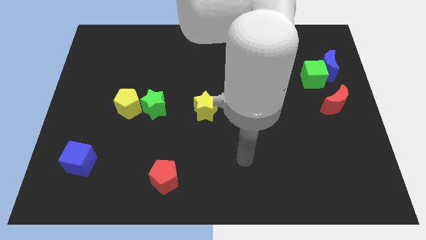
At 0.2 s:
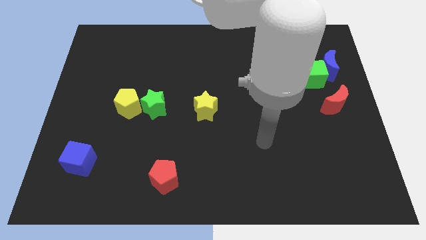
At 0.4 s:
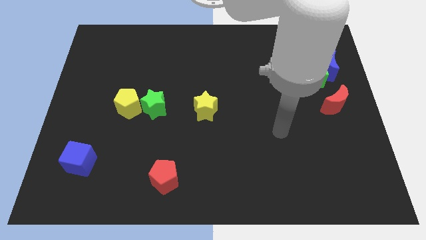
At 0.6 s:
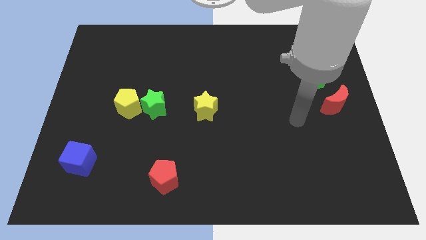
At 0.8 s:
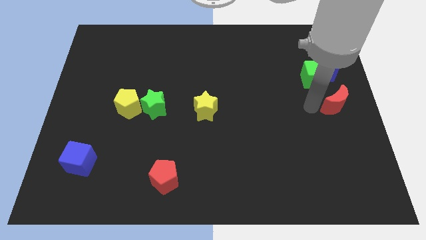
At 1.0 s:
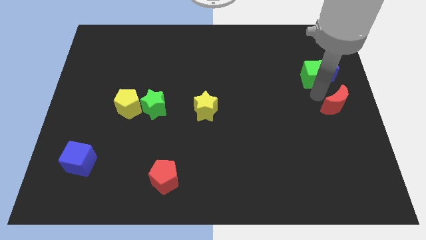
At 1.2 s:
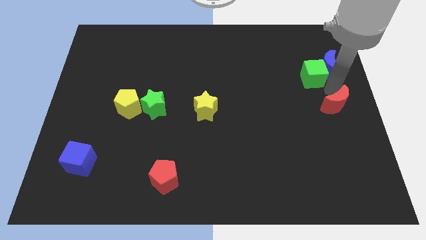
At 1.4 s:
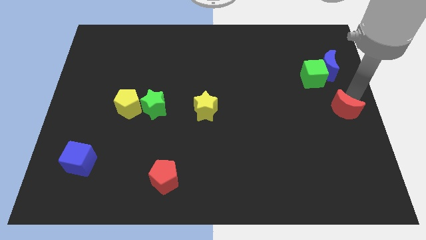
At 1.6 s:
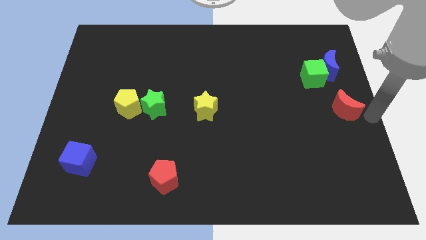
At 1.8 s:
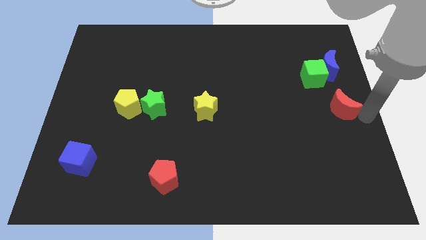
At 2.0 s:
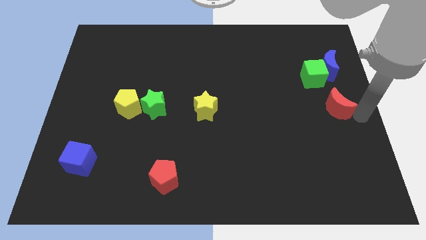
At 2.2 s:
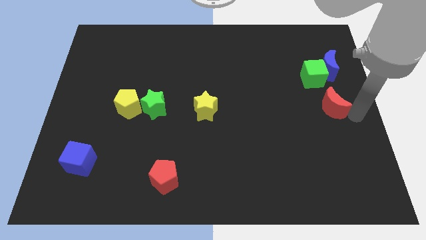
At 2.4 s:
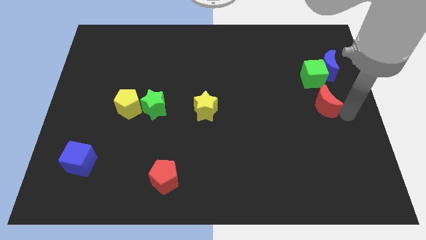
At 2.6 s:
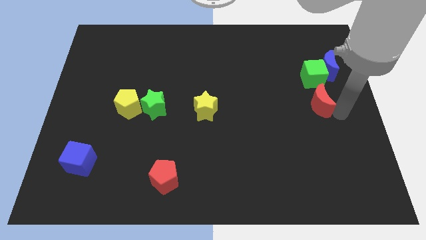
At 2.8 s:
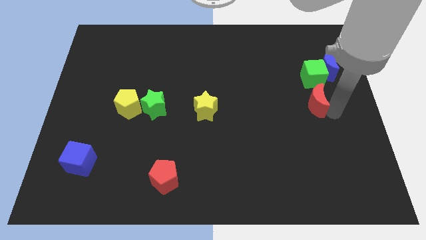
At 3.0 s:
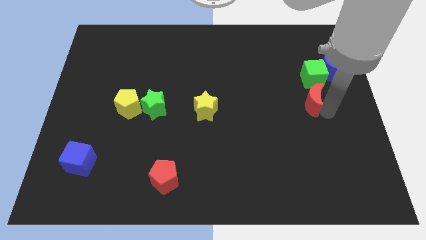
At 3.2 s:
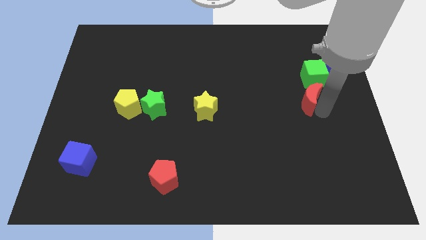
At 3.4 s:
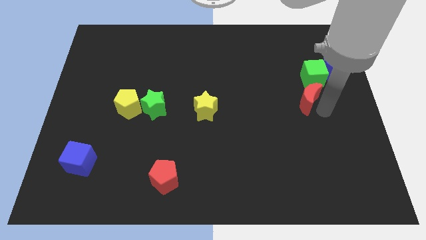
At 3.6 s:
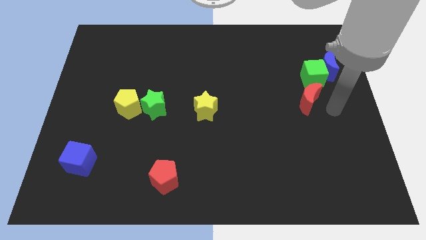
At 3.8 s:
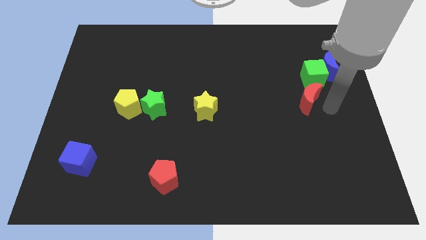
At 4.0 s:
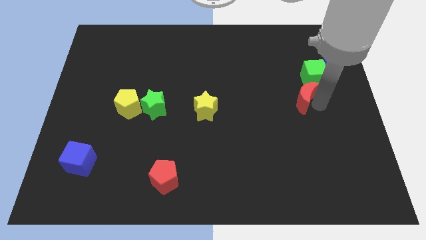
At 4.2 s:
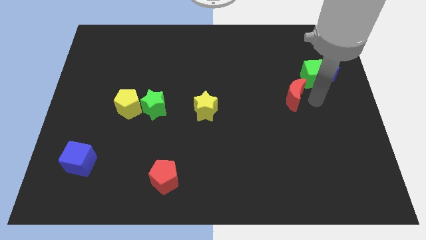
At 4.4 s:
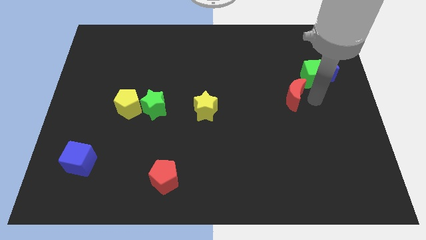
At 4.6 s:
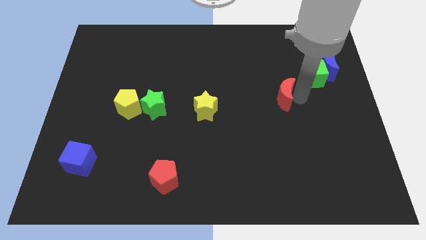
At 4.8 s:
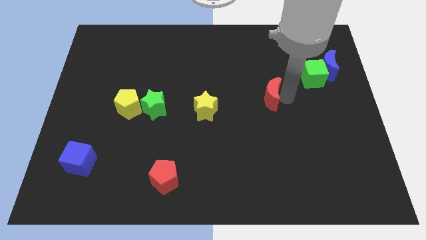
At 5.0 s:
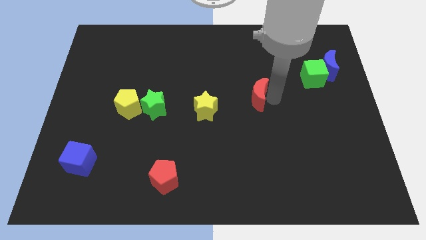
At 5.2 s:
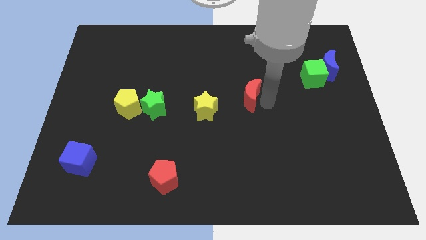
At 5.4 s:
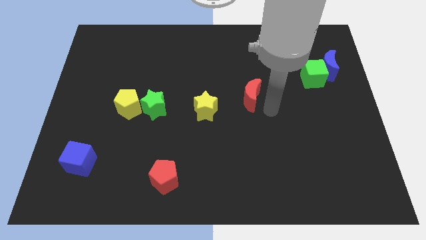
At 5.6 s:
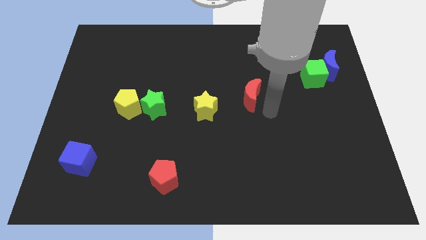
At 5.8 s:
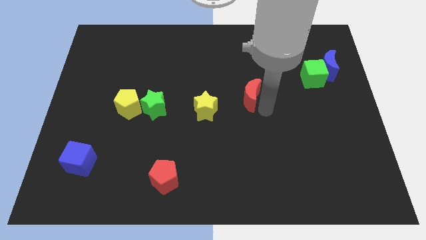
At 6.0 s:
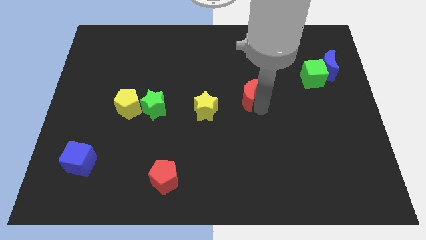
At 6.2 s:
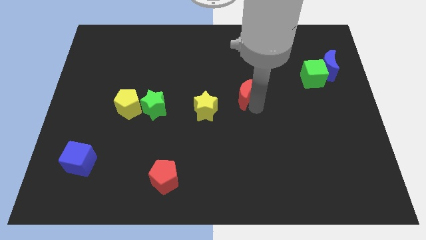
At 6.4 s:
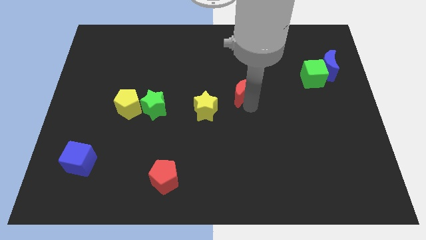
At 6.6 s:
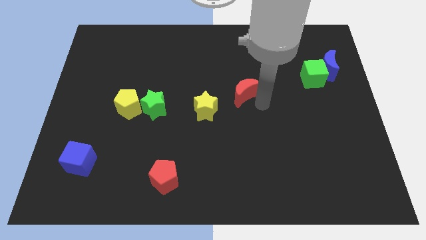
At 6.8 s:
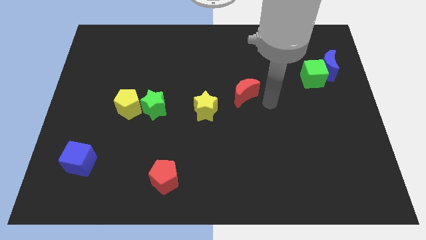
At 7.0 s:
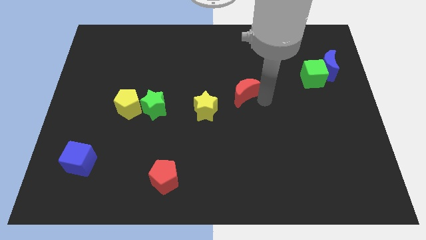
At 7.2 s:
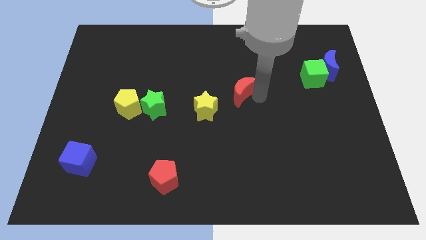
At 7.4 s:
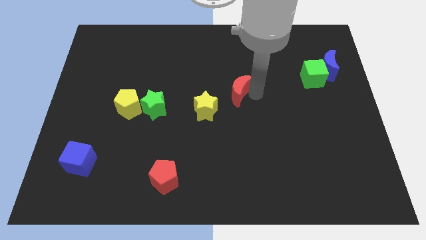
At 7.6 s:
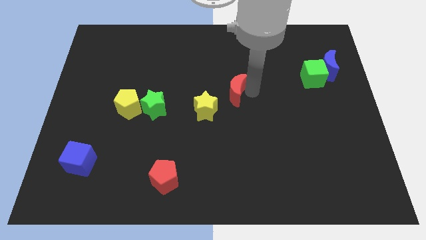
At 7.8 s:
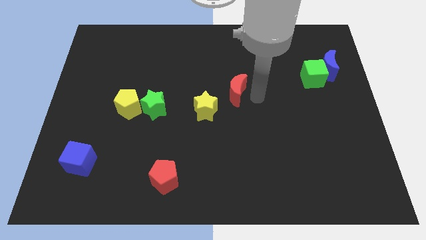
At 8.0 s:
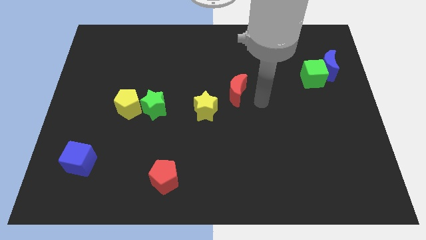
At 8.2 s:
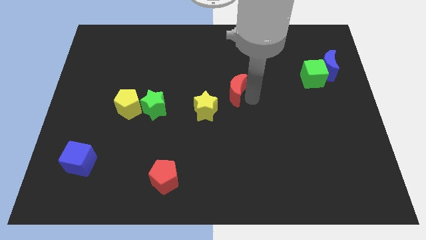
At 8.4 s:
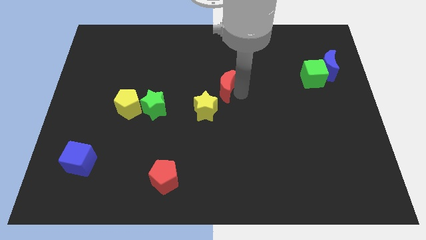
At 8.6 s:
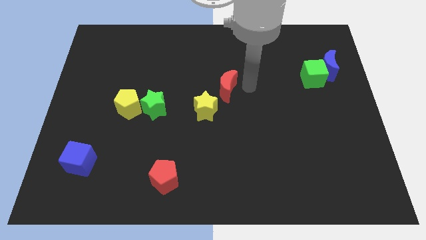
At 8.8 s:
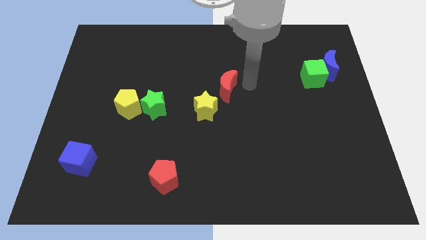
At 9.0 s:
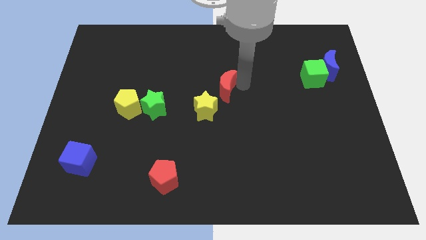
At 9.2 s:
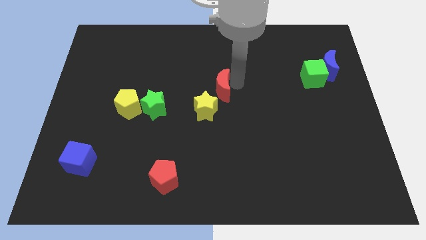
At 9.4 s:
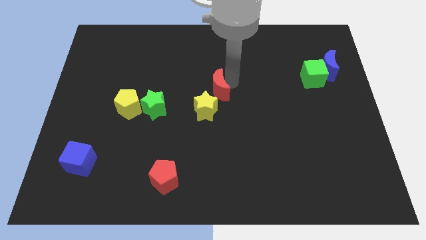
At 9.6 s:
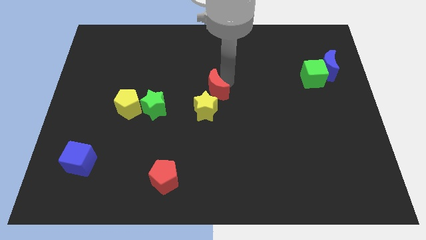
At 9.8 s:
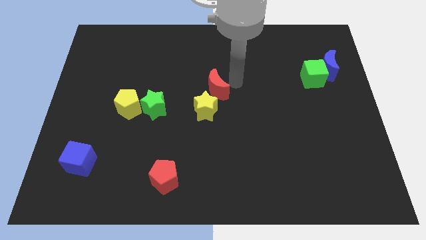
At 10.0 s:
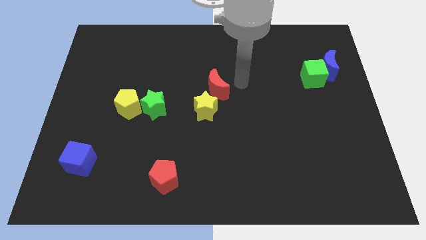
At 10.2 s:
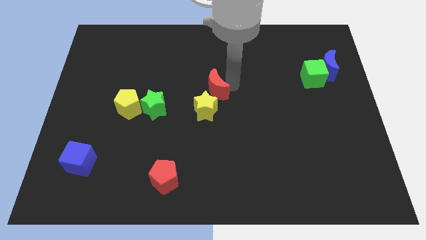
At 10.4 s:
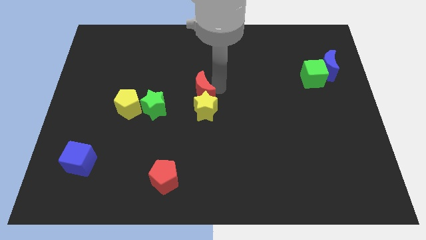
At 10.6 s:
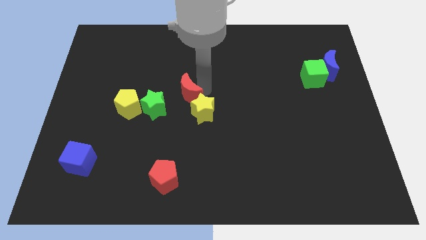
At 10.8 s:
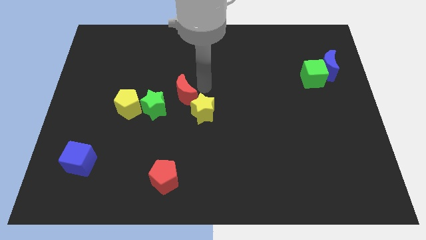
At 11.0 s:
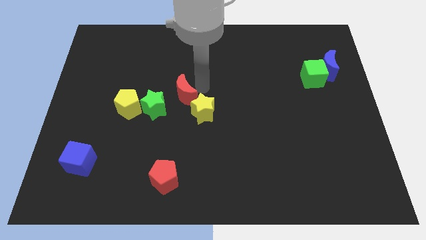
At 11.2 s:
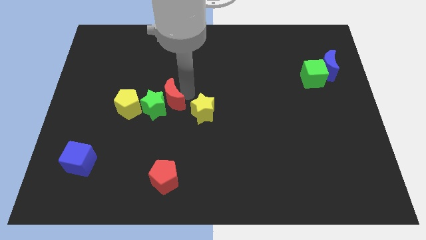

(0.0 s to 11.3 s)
move the red moon to the green star

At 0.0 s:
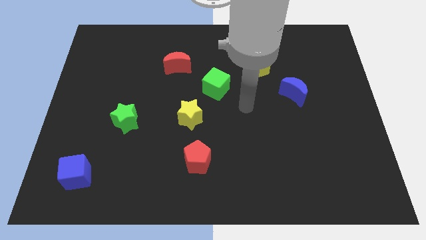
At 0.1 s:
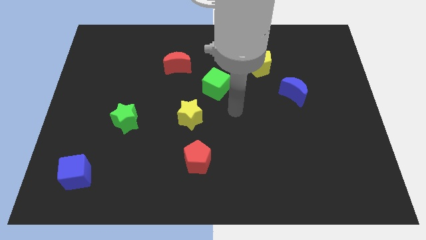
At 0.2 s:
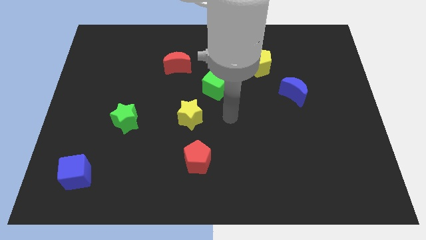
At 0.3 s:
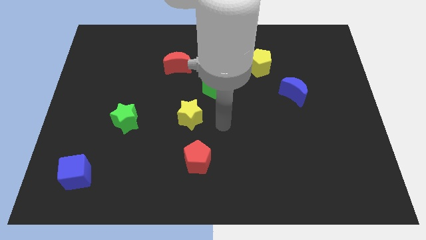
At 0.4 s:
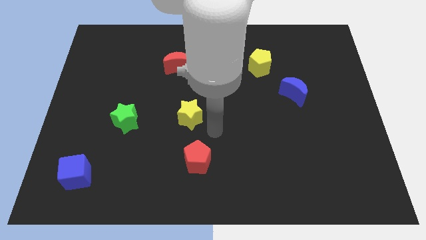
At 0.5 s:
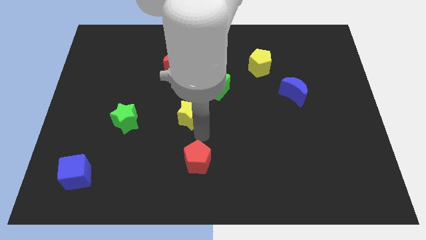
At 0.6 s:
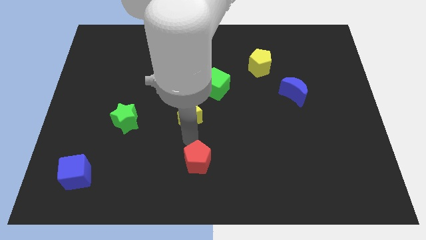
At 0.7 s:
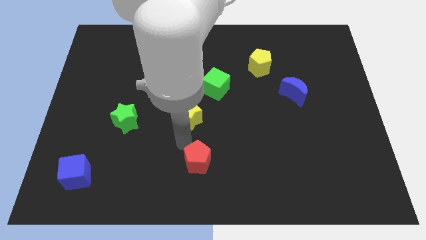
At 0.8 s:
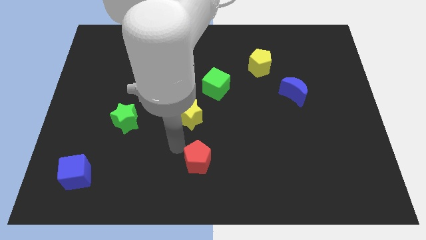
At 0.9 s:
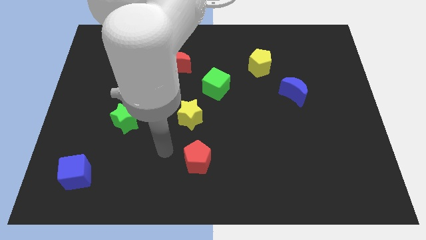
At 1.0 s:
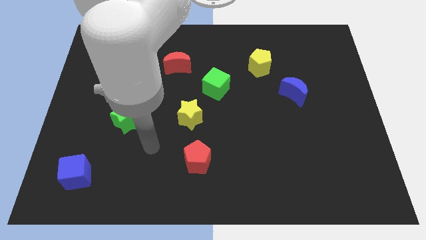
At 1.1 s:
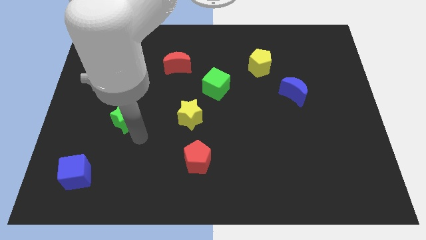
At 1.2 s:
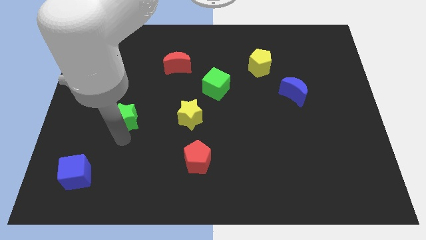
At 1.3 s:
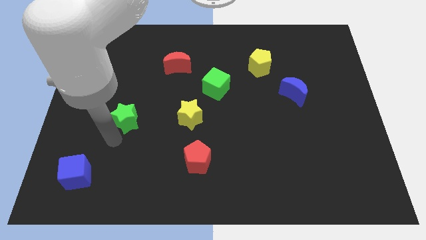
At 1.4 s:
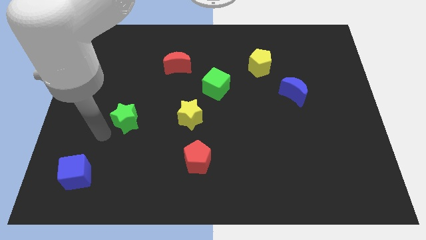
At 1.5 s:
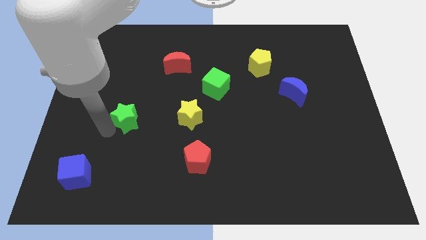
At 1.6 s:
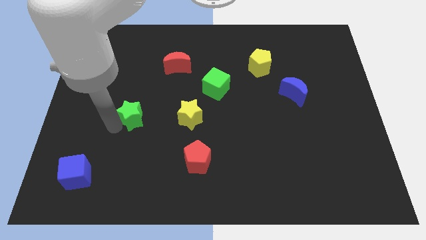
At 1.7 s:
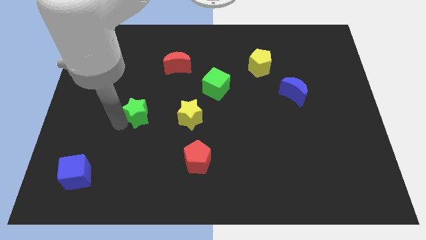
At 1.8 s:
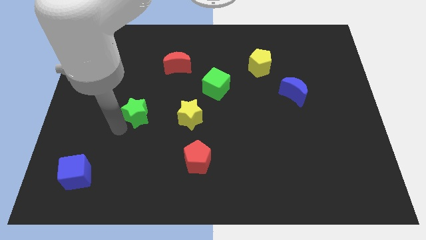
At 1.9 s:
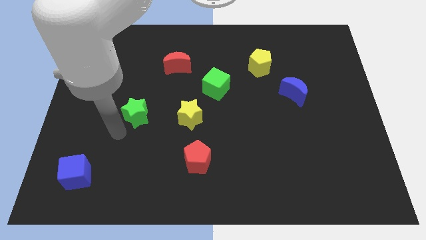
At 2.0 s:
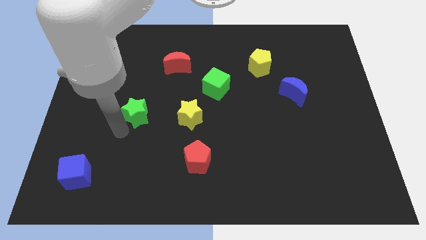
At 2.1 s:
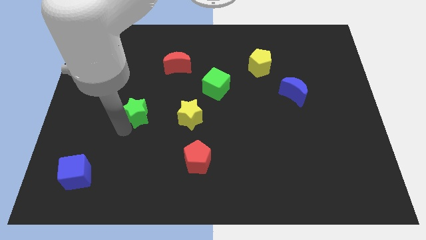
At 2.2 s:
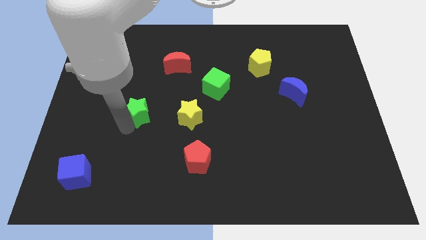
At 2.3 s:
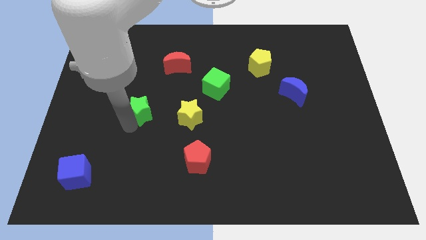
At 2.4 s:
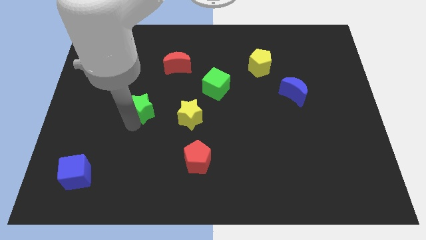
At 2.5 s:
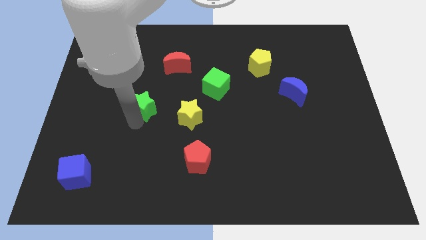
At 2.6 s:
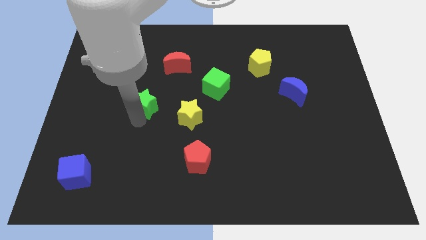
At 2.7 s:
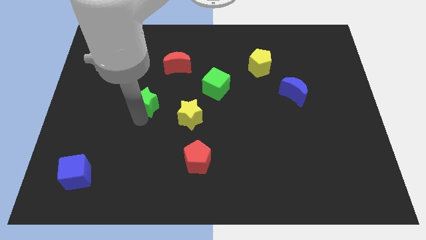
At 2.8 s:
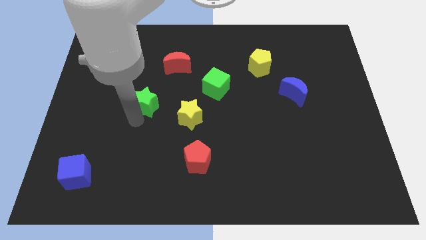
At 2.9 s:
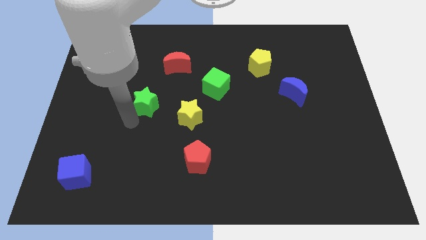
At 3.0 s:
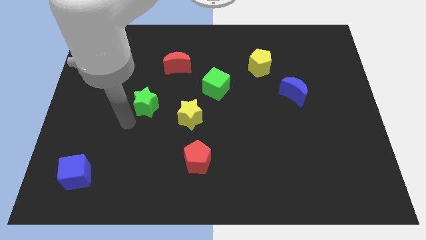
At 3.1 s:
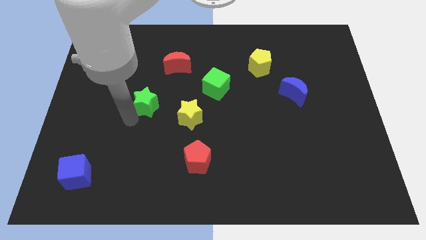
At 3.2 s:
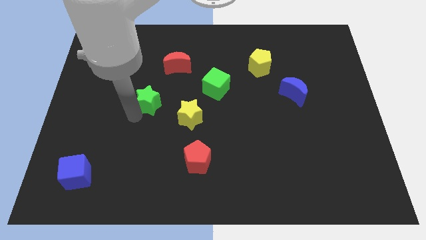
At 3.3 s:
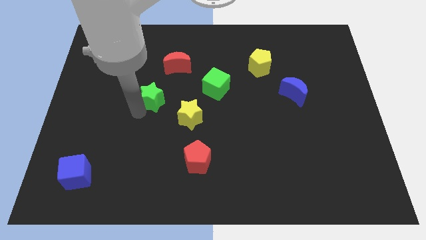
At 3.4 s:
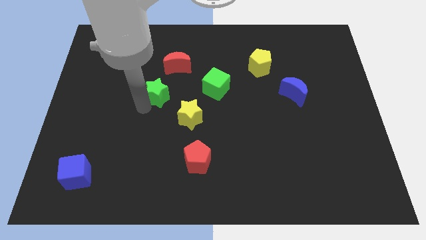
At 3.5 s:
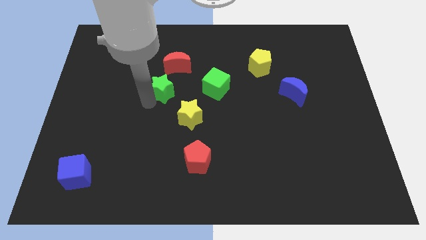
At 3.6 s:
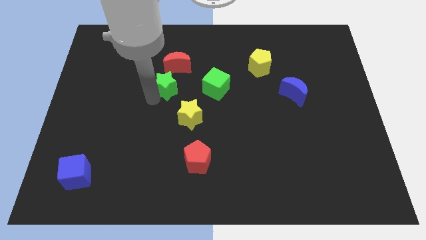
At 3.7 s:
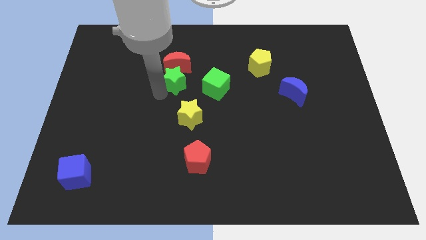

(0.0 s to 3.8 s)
push the green star close to the red moon
